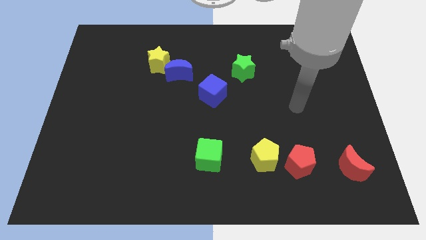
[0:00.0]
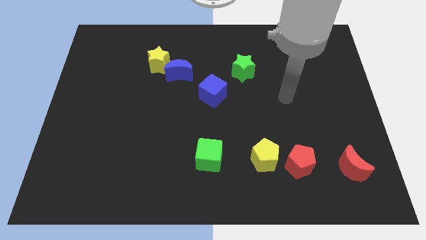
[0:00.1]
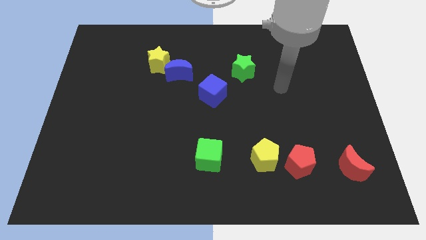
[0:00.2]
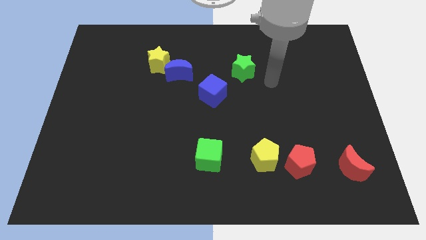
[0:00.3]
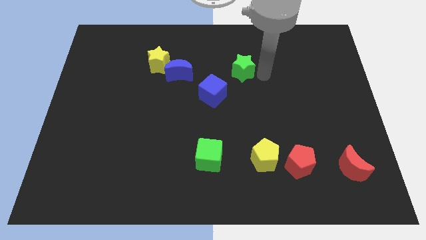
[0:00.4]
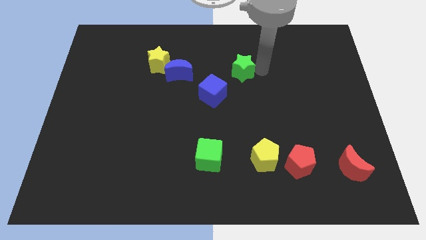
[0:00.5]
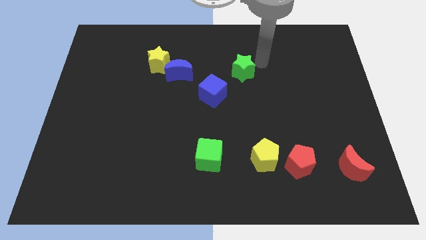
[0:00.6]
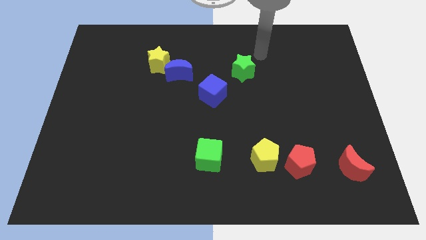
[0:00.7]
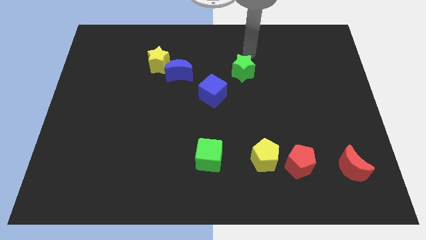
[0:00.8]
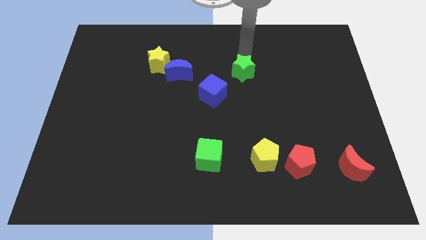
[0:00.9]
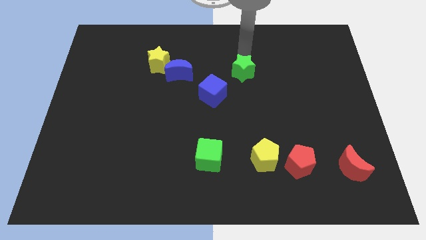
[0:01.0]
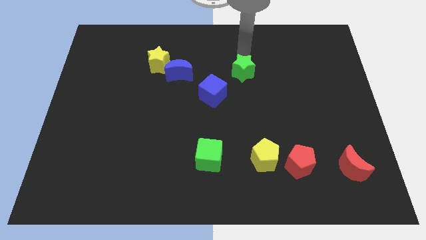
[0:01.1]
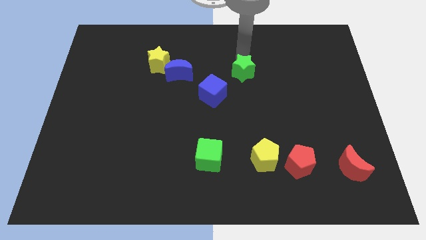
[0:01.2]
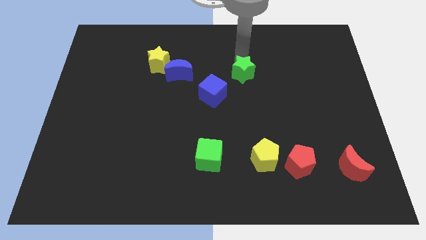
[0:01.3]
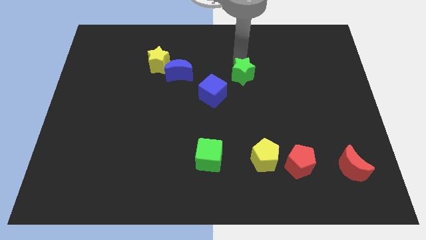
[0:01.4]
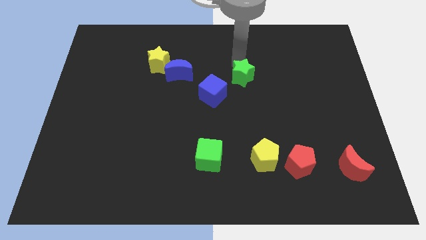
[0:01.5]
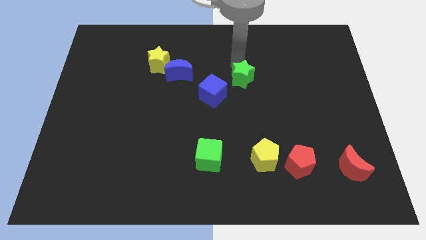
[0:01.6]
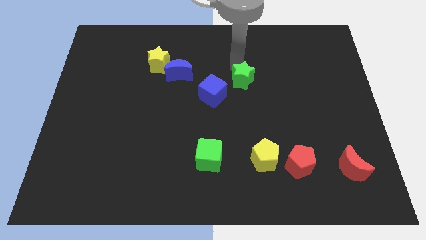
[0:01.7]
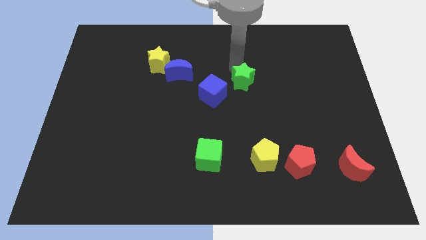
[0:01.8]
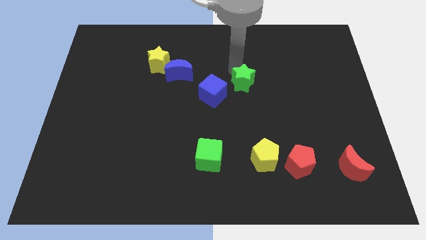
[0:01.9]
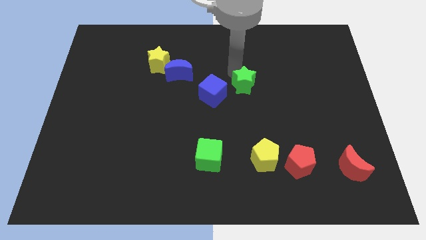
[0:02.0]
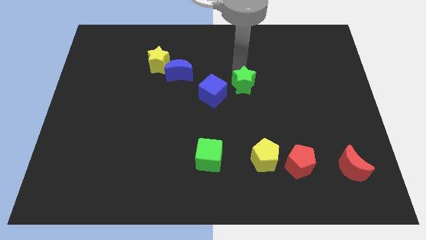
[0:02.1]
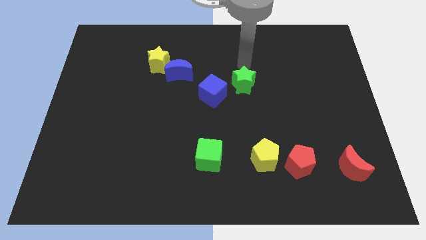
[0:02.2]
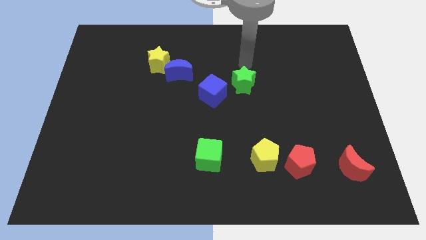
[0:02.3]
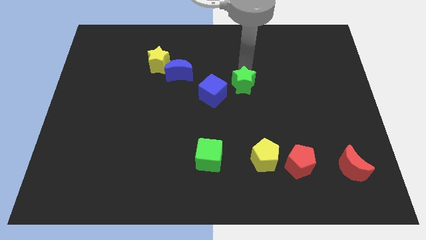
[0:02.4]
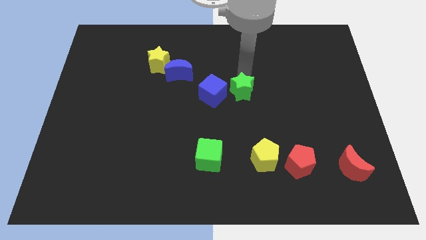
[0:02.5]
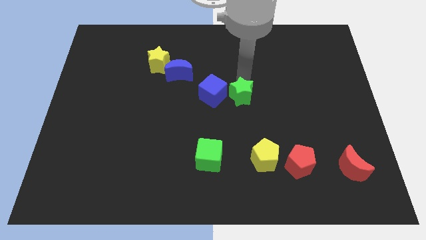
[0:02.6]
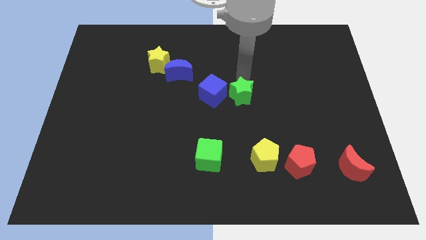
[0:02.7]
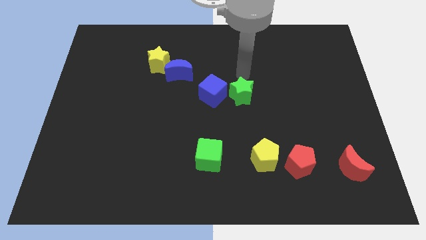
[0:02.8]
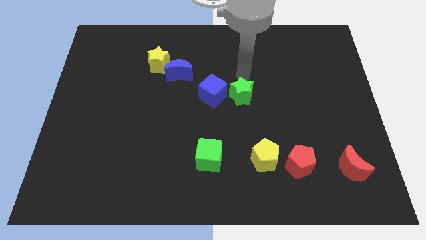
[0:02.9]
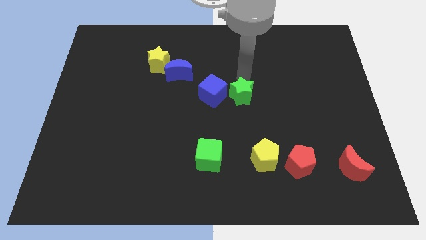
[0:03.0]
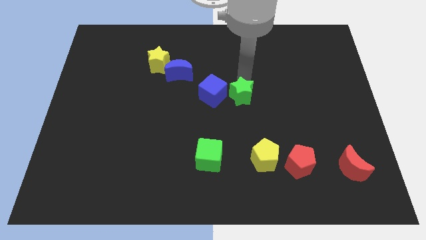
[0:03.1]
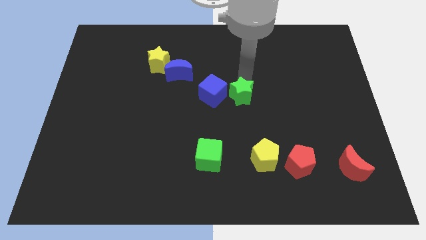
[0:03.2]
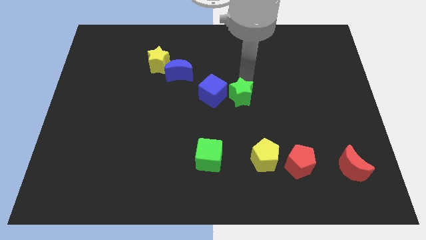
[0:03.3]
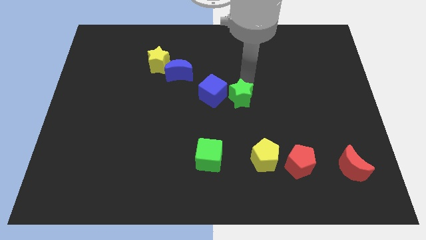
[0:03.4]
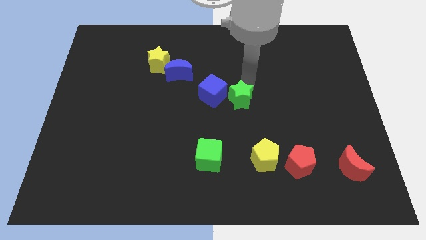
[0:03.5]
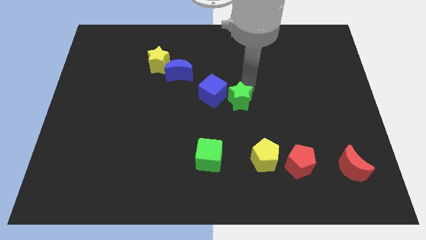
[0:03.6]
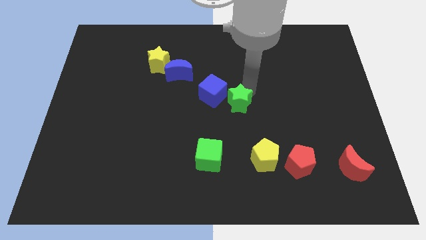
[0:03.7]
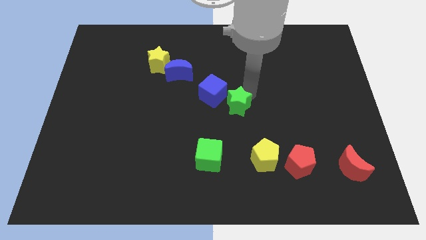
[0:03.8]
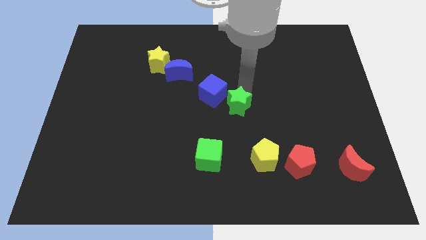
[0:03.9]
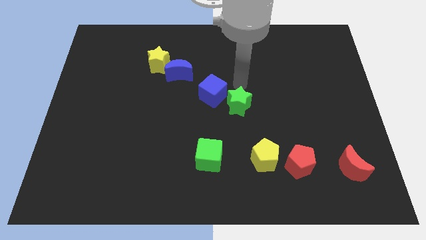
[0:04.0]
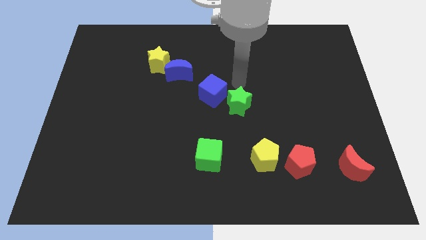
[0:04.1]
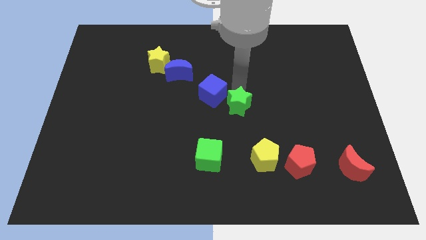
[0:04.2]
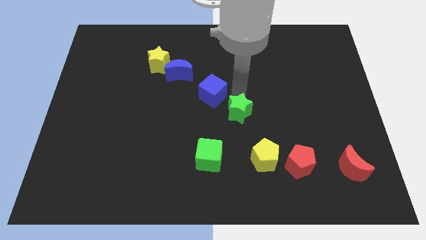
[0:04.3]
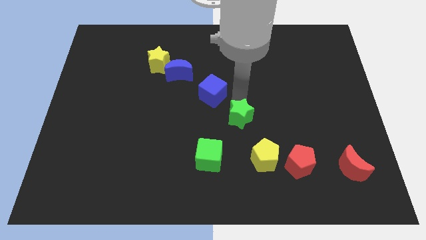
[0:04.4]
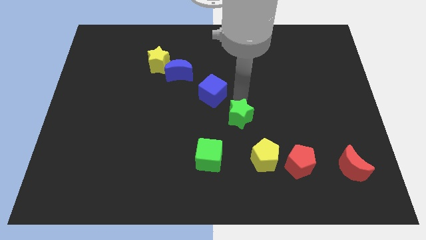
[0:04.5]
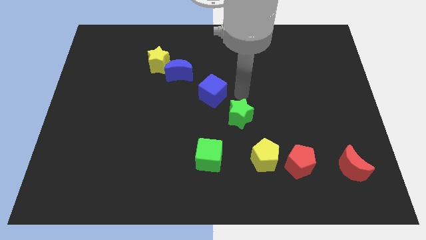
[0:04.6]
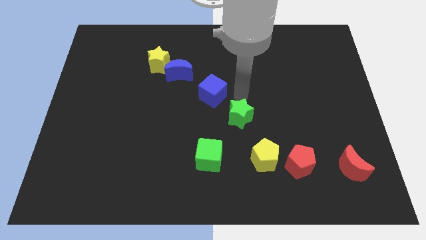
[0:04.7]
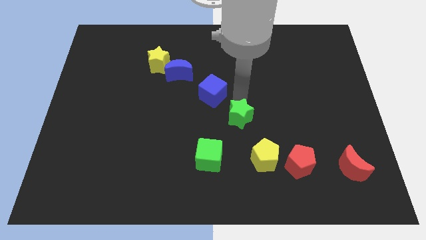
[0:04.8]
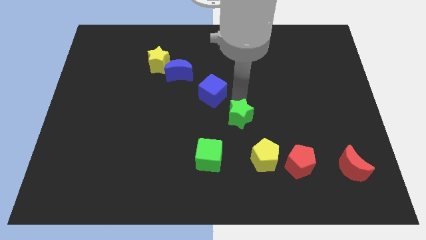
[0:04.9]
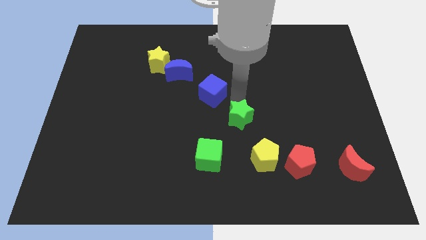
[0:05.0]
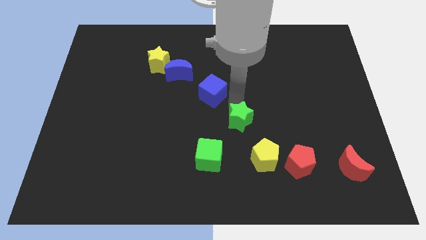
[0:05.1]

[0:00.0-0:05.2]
slide the green star to the top left of the yellow pentagon

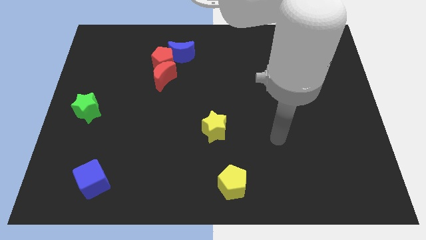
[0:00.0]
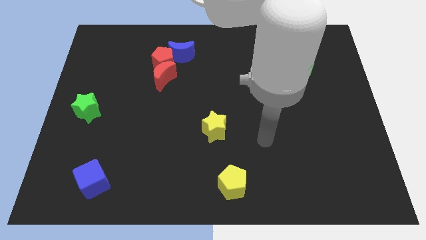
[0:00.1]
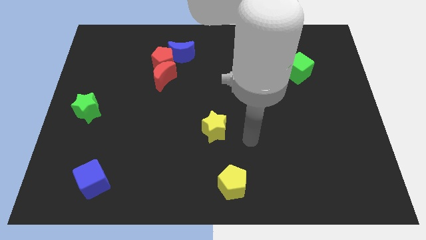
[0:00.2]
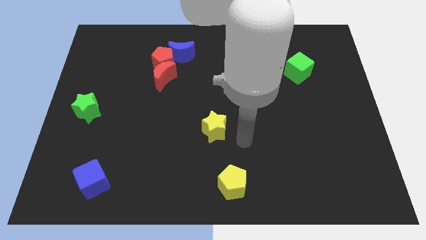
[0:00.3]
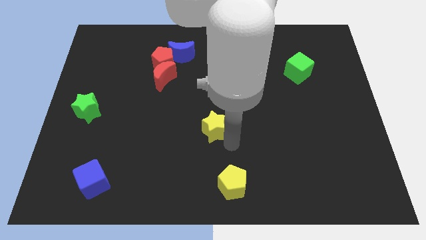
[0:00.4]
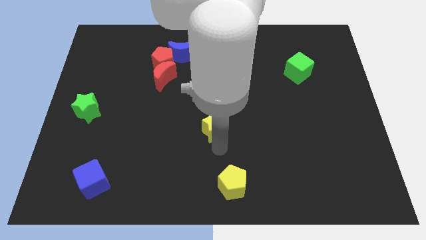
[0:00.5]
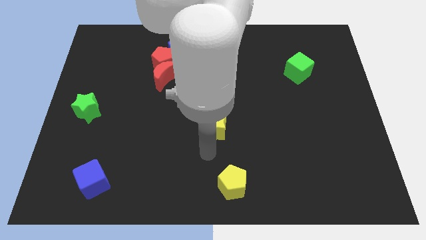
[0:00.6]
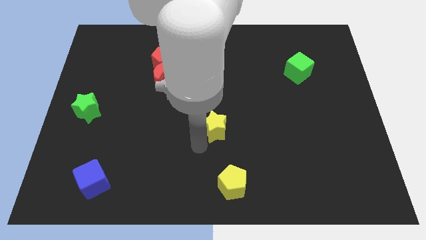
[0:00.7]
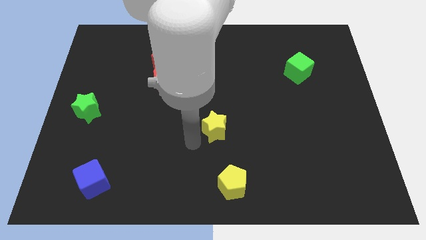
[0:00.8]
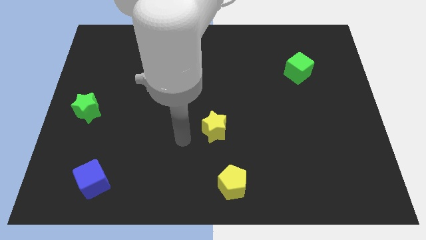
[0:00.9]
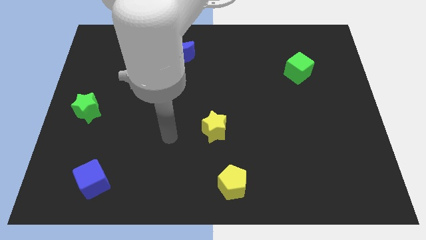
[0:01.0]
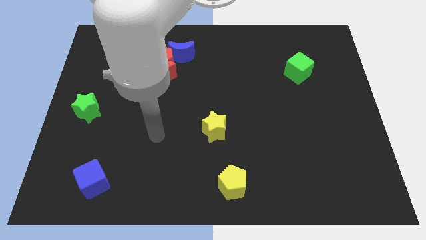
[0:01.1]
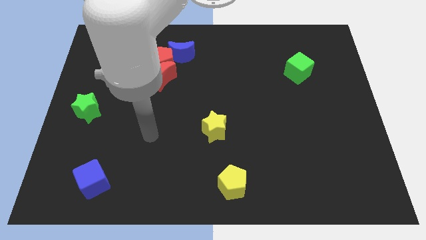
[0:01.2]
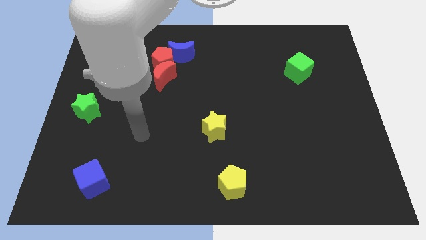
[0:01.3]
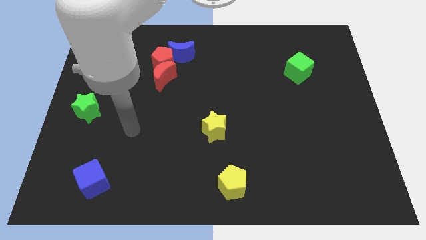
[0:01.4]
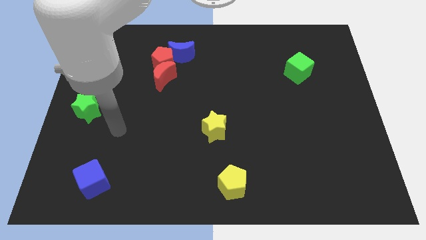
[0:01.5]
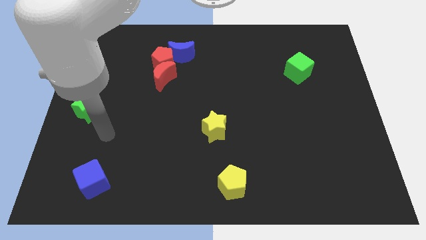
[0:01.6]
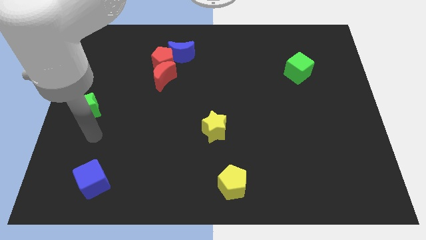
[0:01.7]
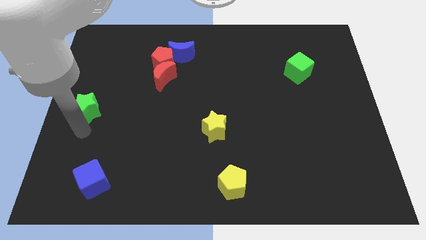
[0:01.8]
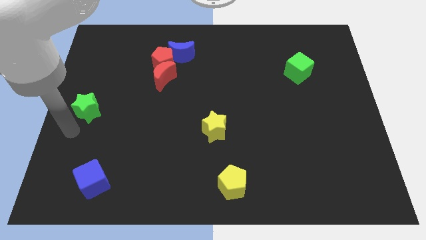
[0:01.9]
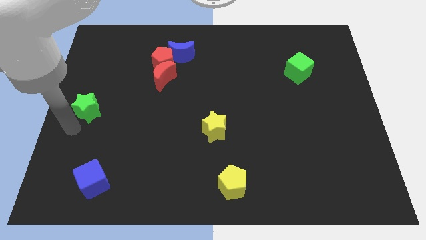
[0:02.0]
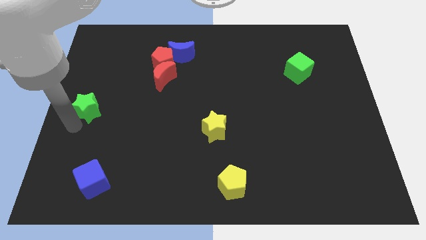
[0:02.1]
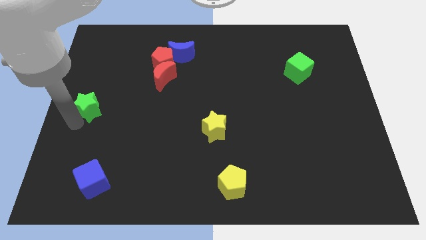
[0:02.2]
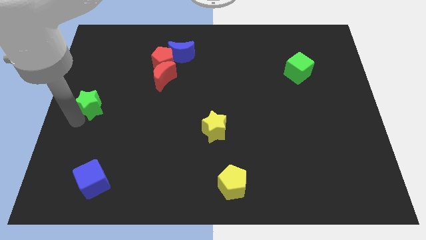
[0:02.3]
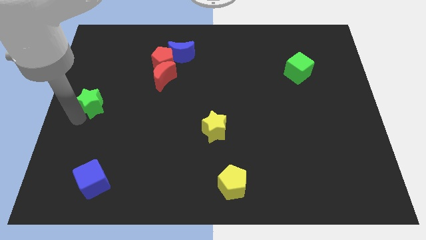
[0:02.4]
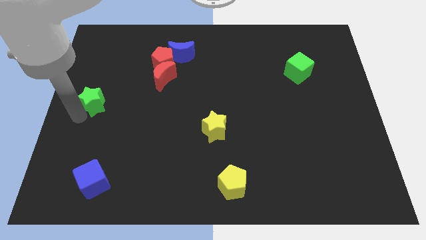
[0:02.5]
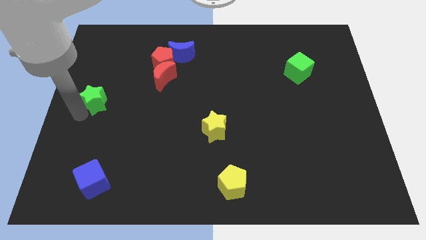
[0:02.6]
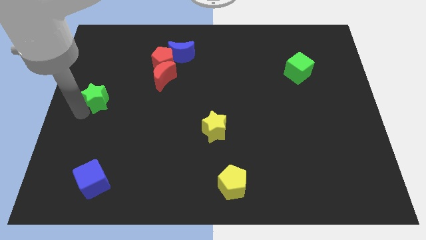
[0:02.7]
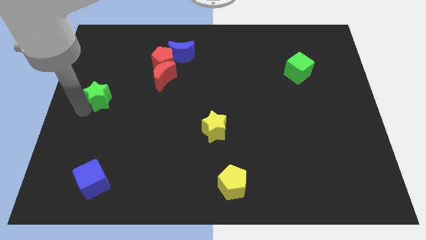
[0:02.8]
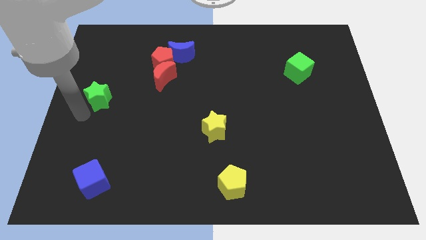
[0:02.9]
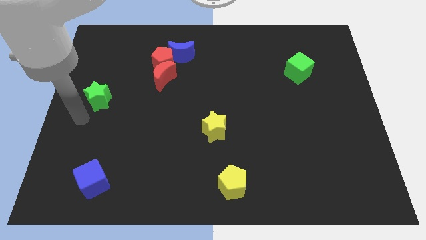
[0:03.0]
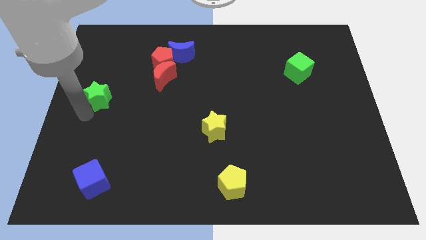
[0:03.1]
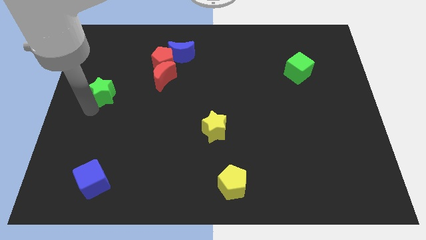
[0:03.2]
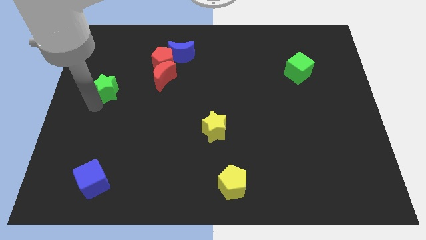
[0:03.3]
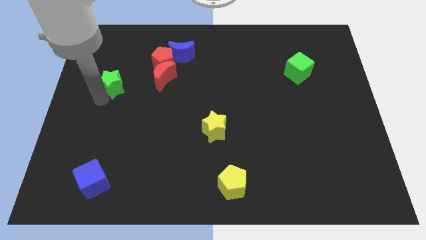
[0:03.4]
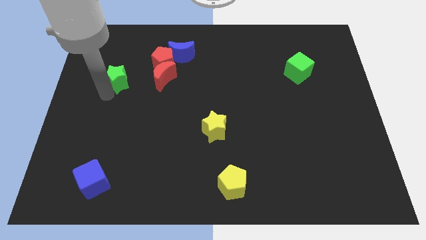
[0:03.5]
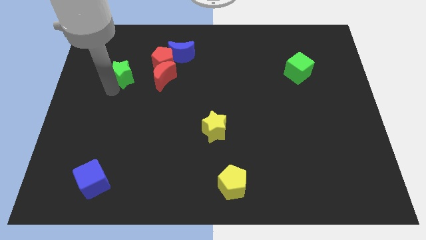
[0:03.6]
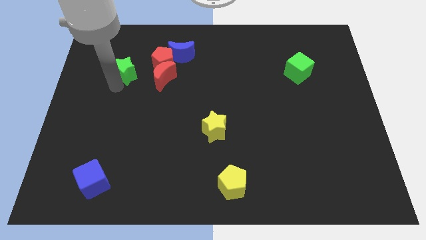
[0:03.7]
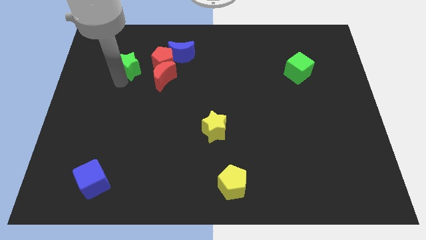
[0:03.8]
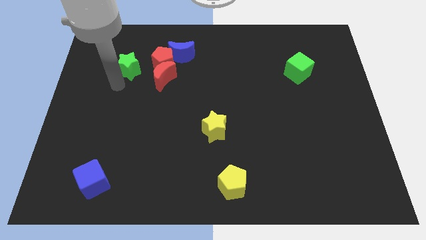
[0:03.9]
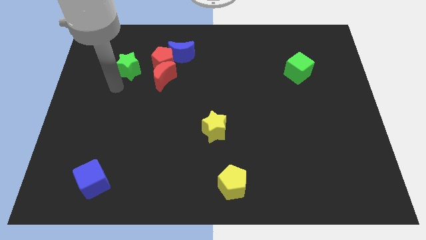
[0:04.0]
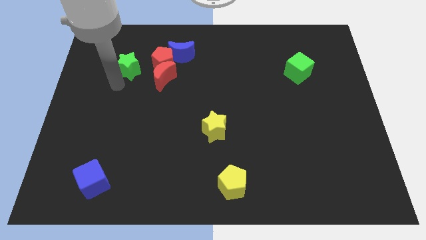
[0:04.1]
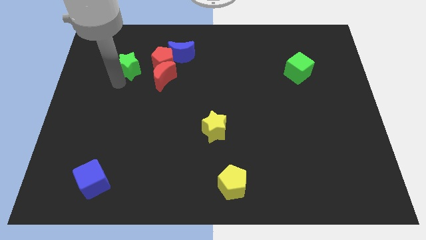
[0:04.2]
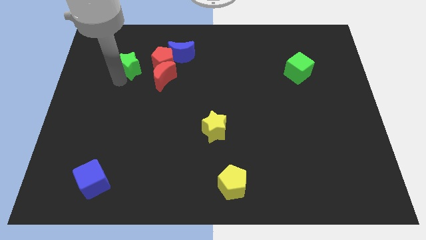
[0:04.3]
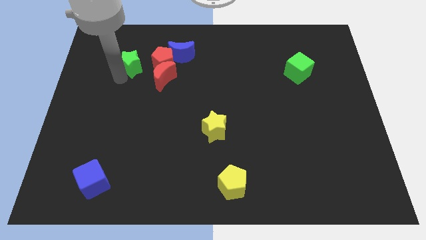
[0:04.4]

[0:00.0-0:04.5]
slide the green star to the left side of the blue moon
